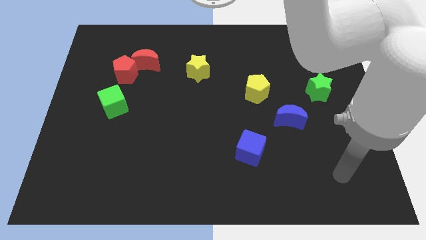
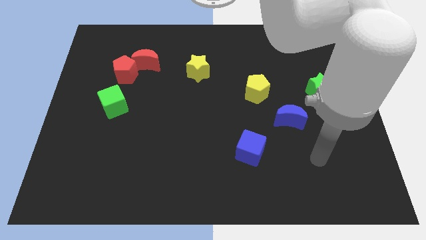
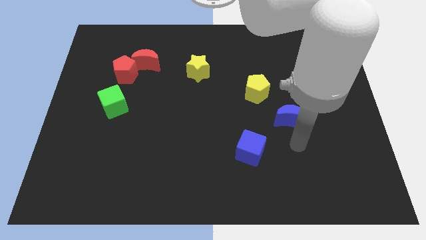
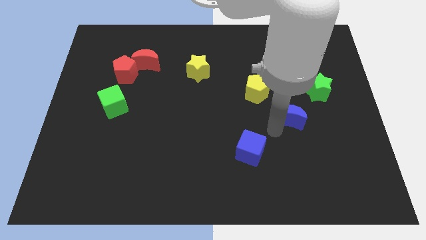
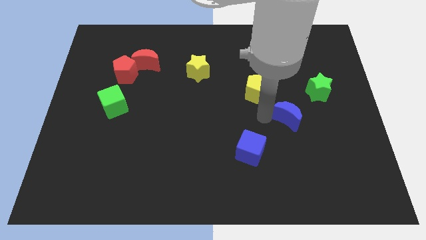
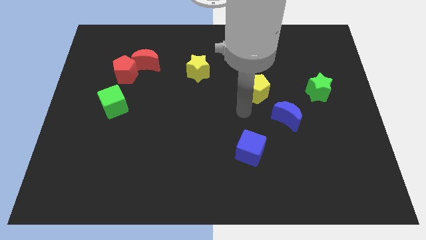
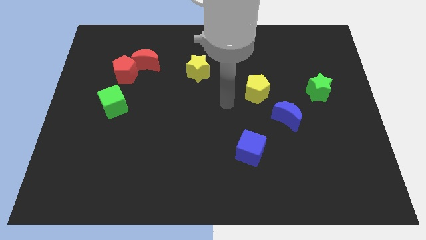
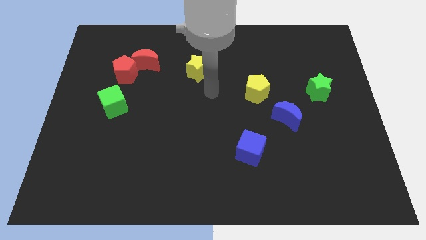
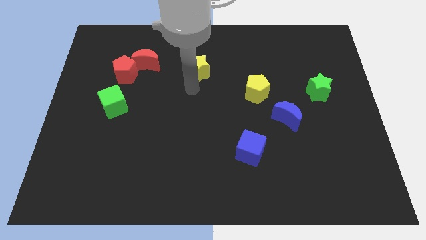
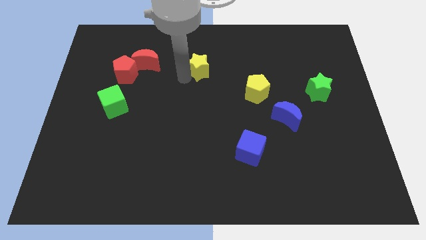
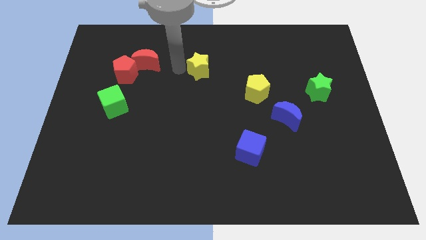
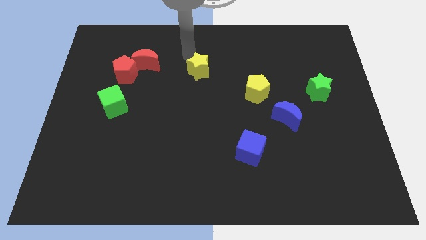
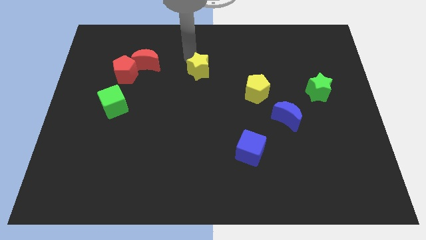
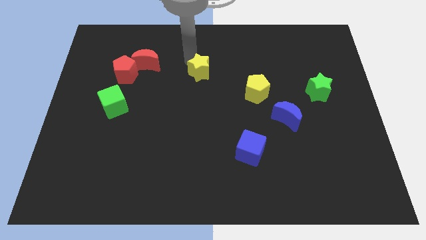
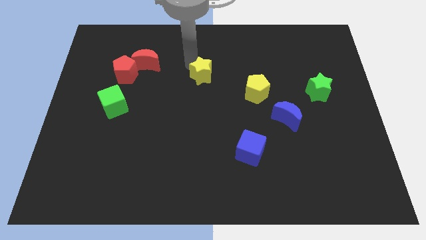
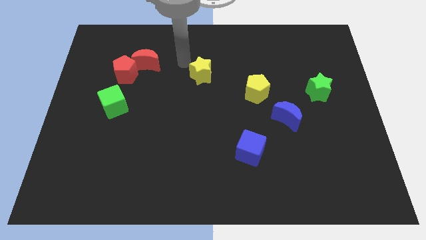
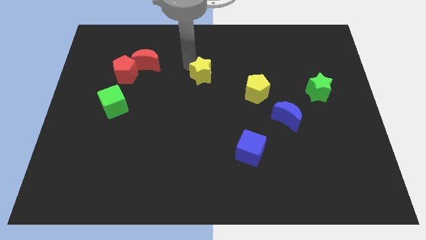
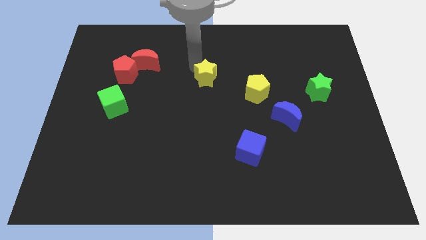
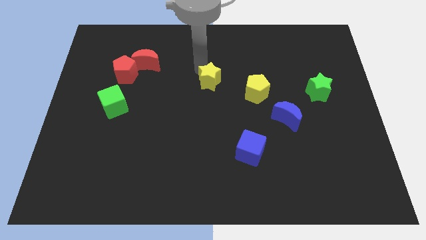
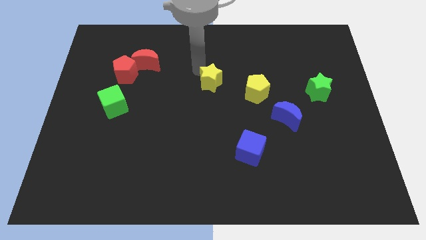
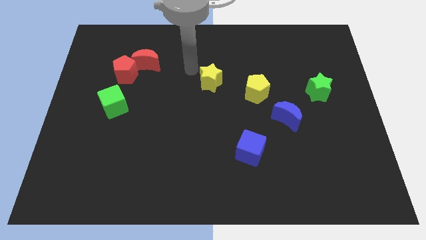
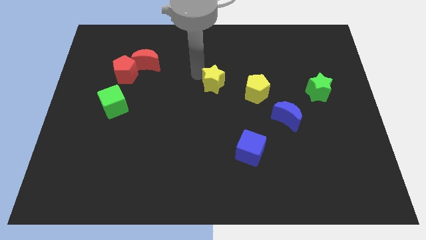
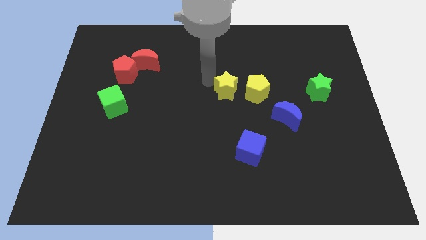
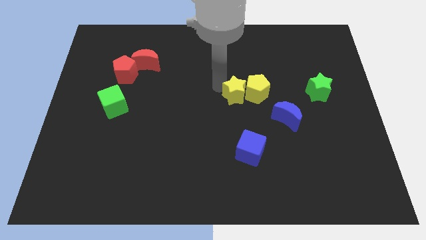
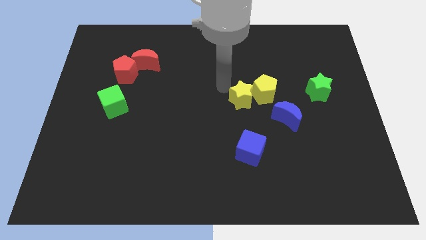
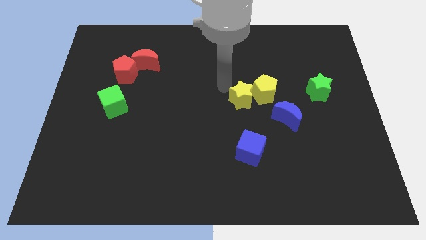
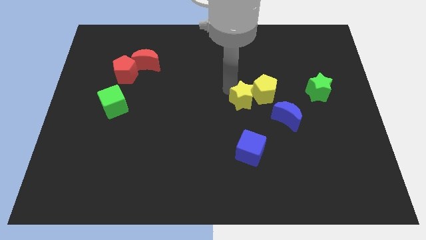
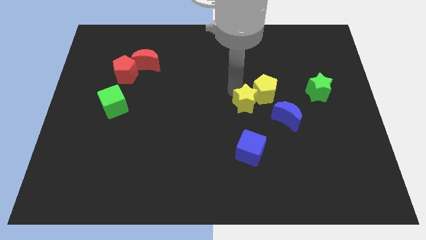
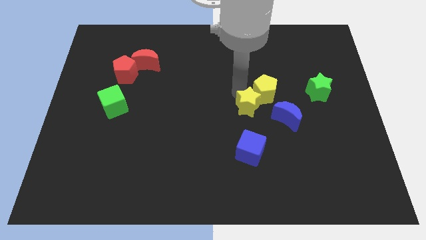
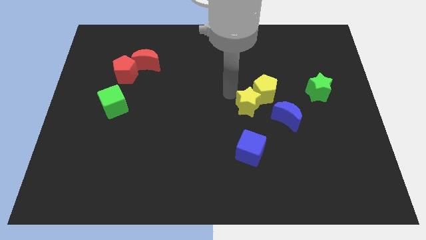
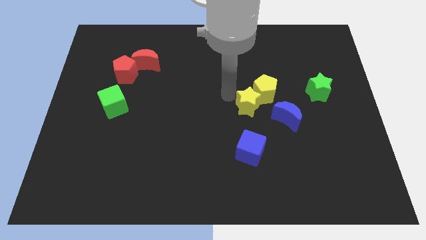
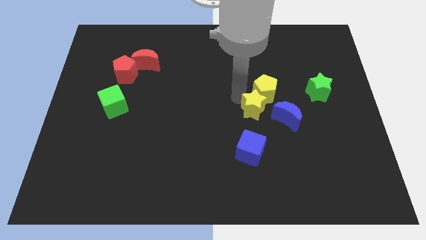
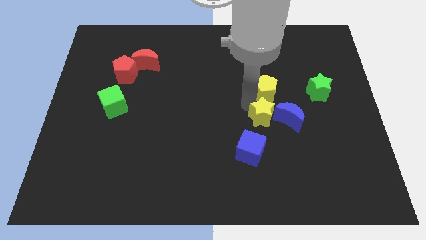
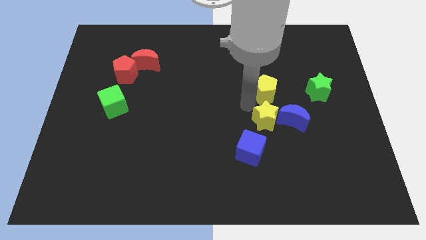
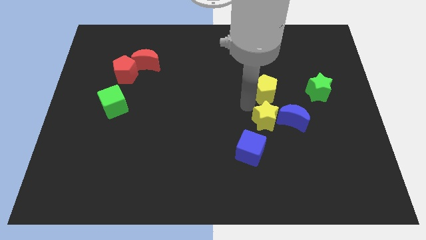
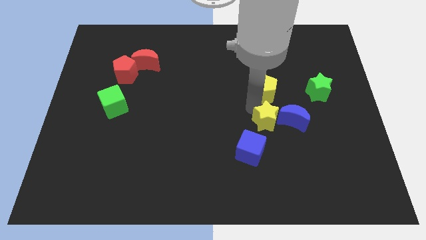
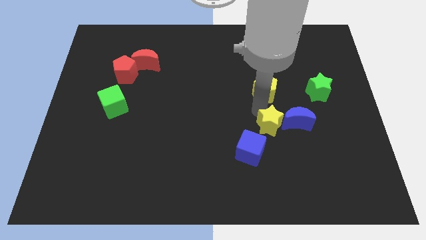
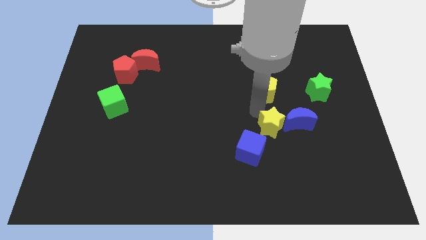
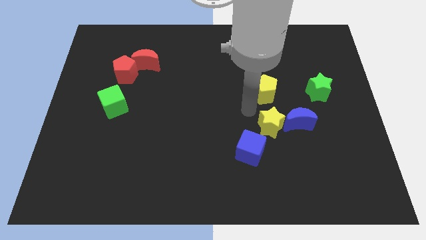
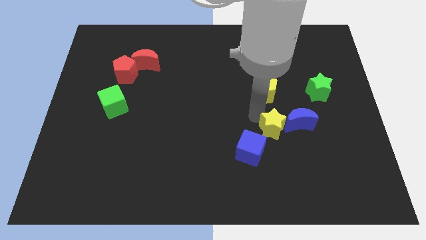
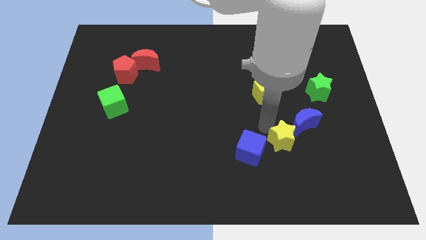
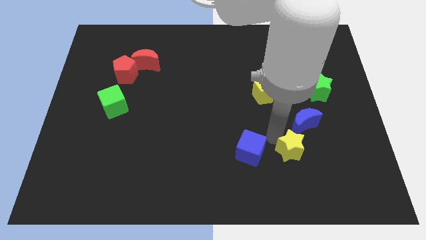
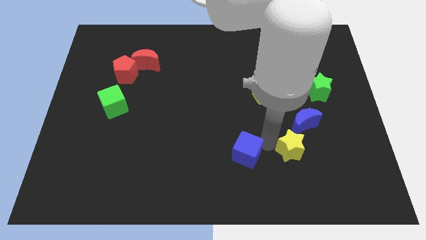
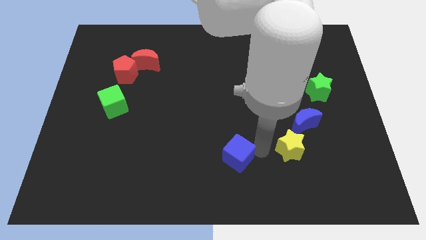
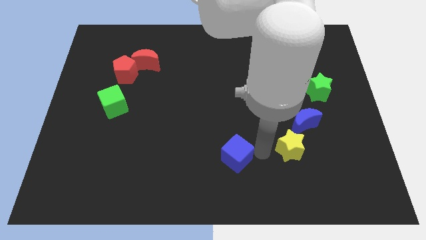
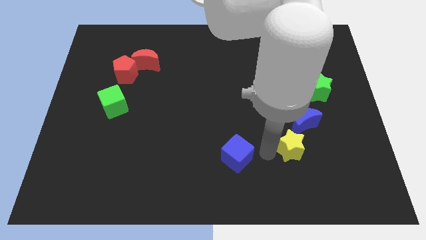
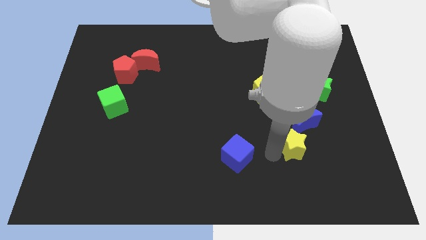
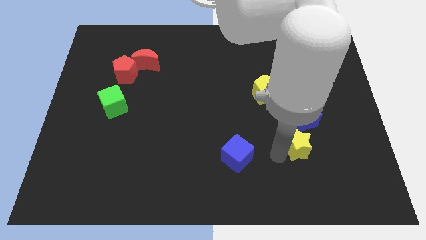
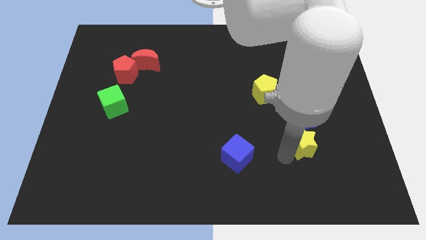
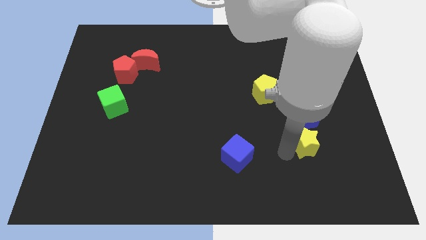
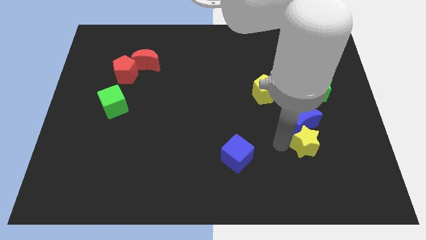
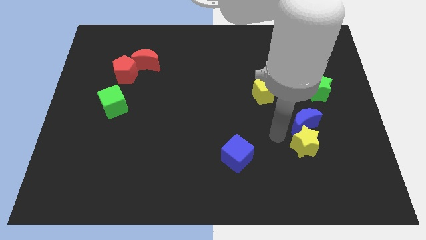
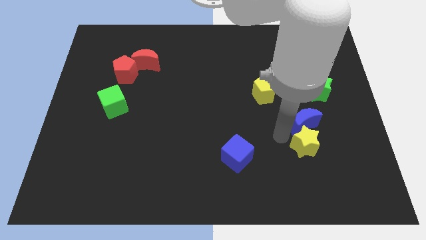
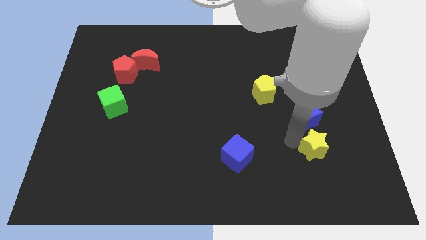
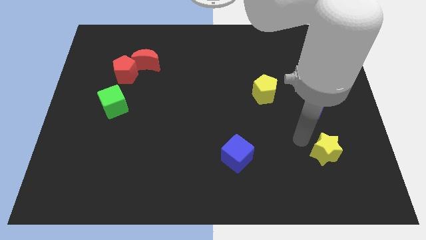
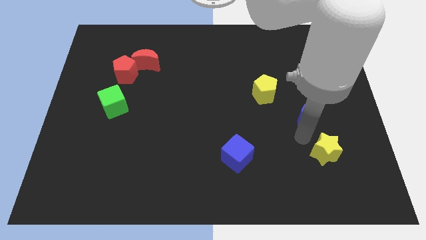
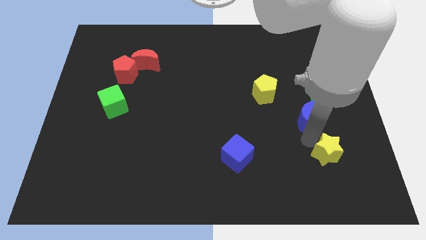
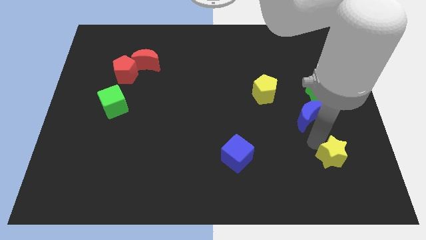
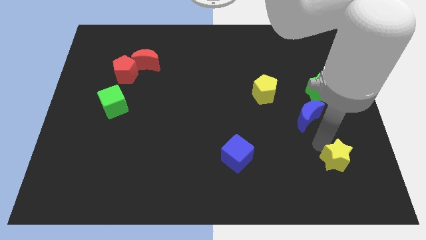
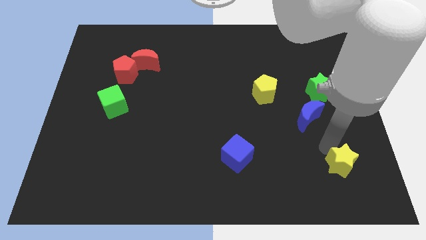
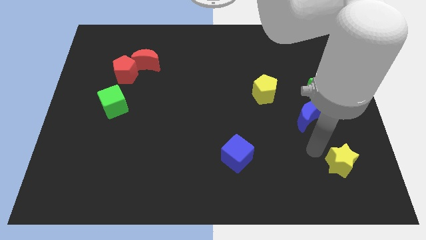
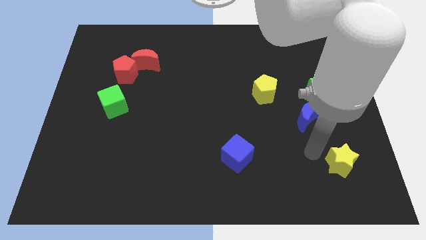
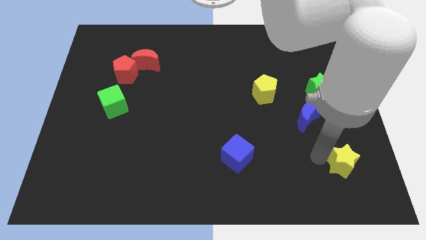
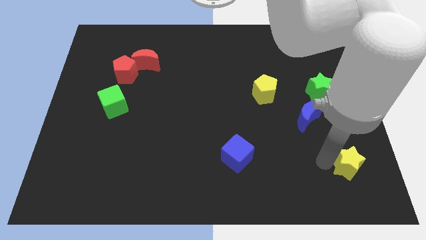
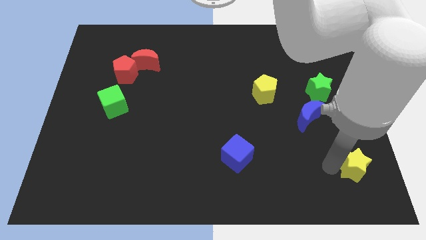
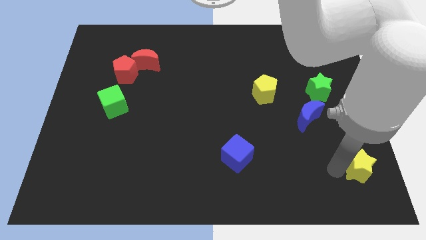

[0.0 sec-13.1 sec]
slide the yellow star to the lower right corner

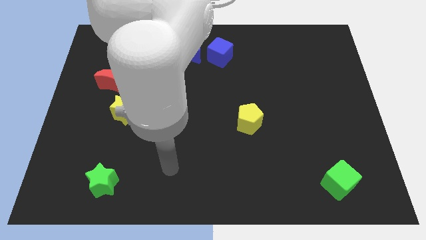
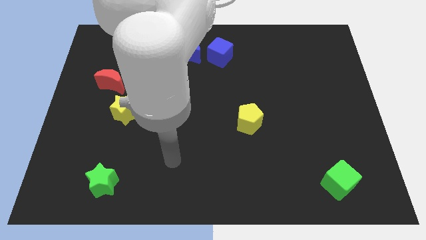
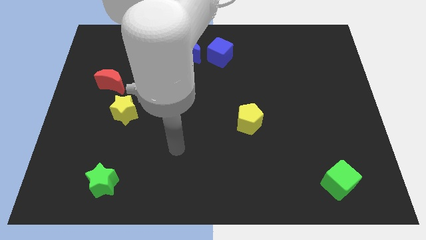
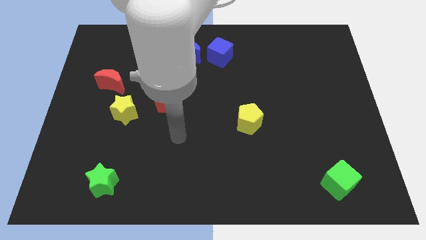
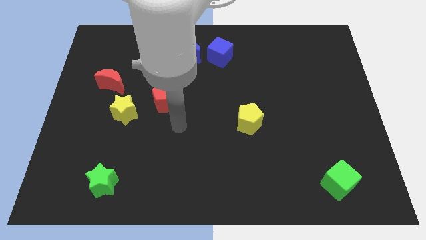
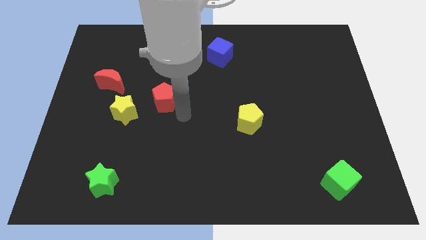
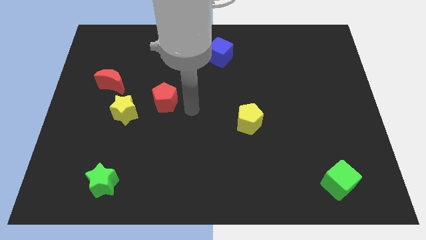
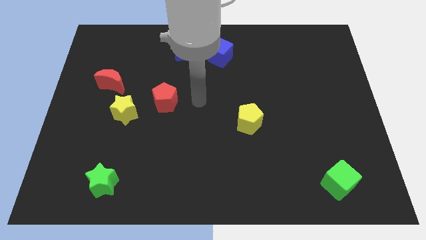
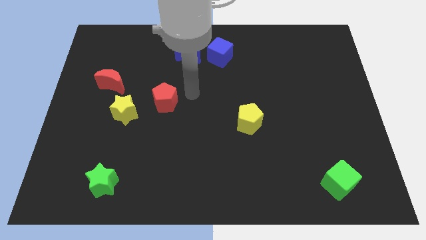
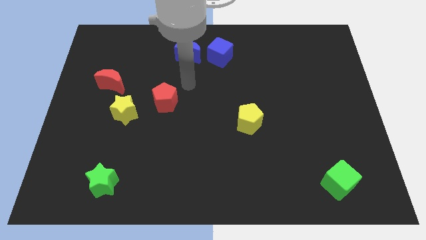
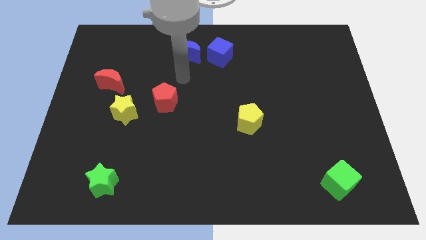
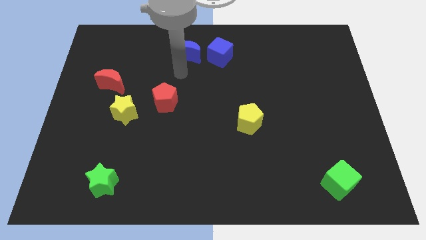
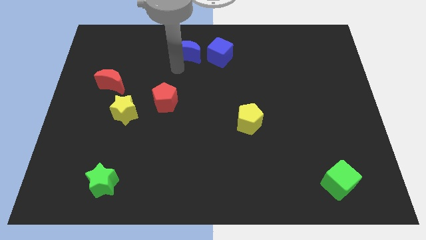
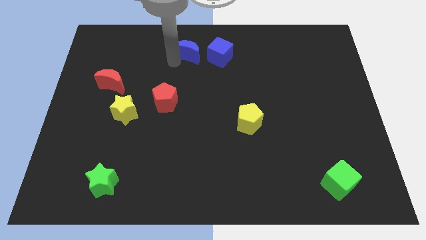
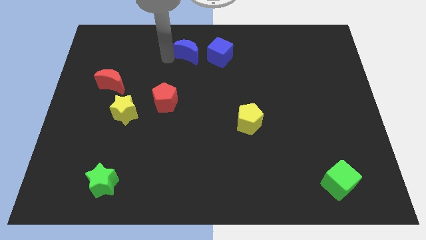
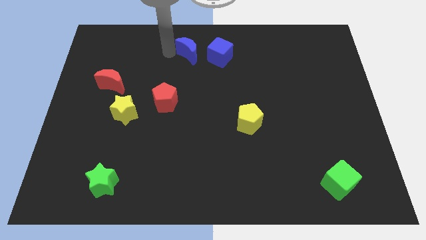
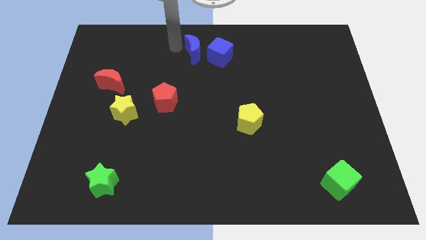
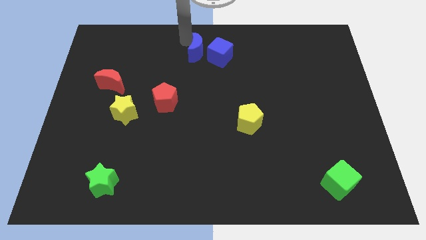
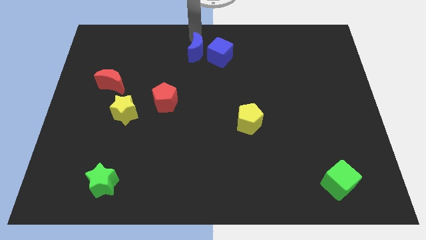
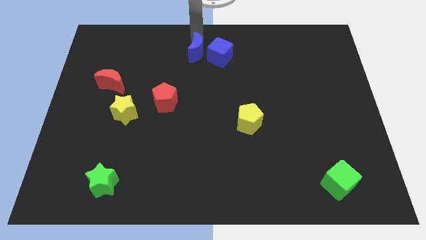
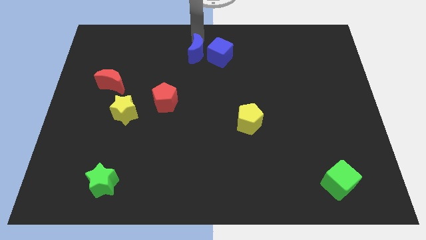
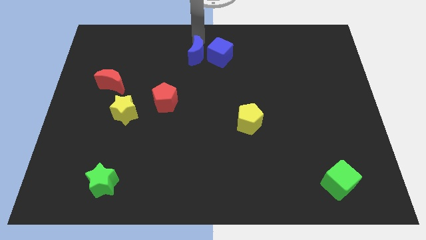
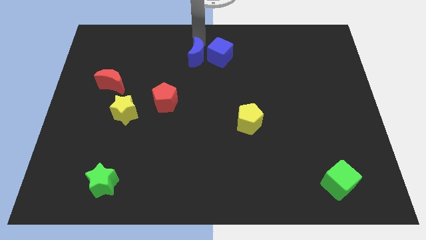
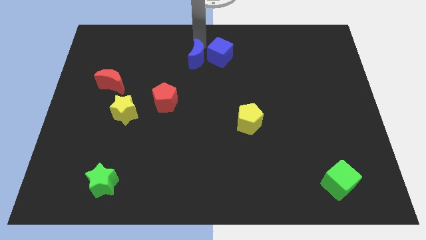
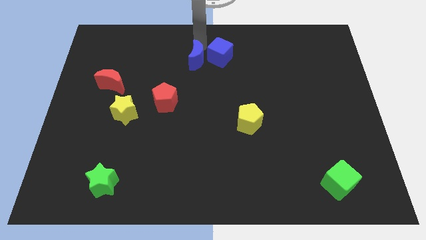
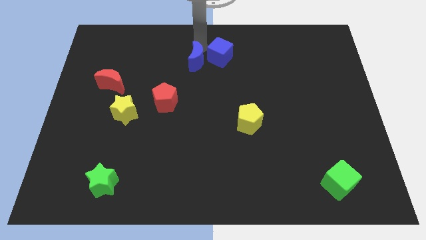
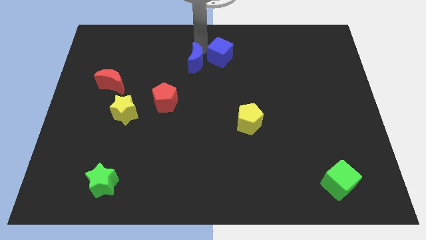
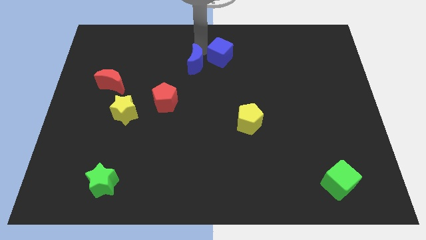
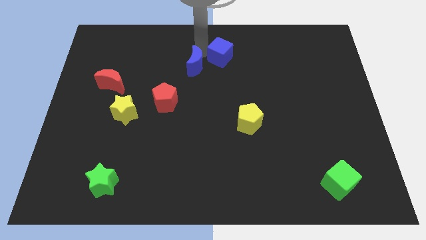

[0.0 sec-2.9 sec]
put the blue moon to the middle
